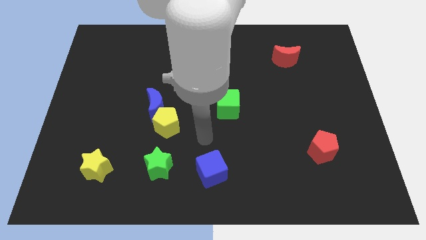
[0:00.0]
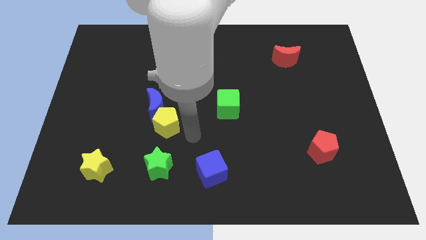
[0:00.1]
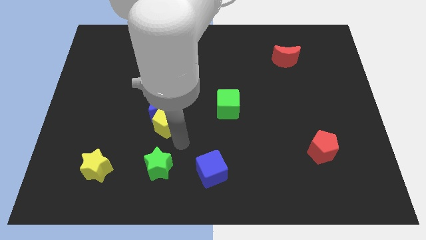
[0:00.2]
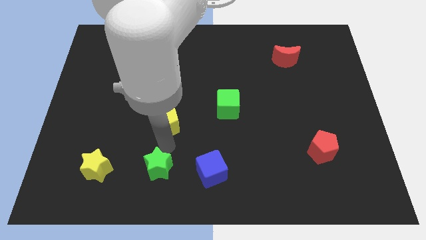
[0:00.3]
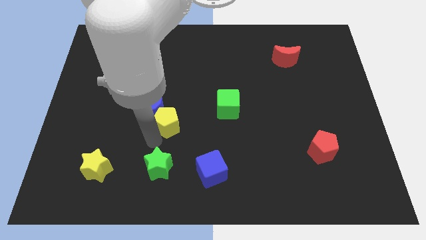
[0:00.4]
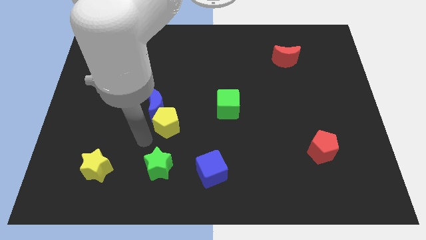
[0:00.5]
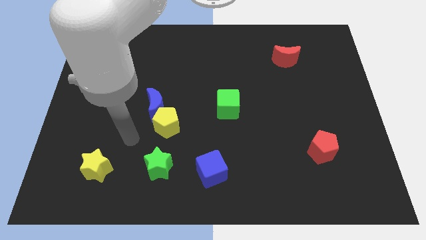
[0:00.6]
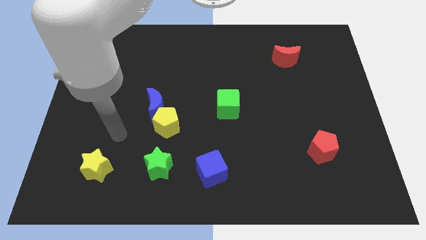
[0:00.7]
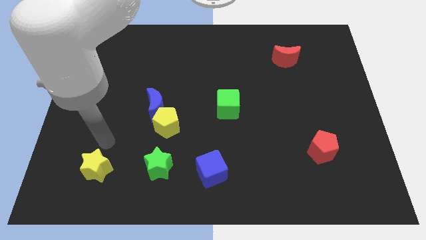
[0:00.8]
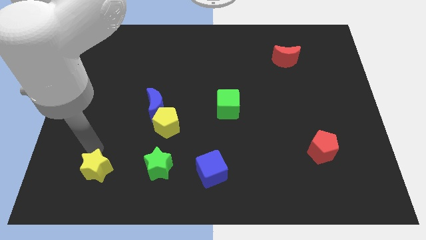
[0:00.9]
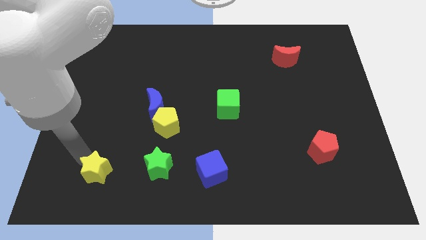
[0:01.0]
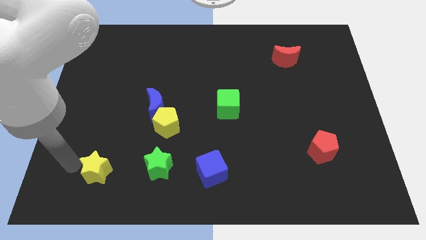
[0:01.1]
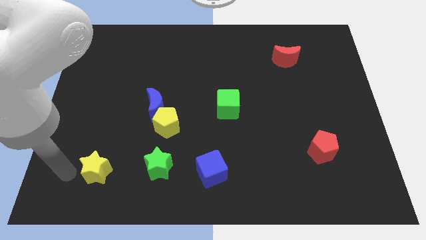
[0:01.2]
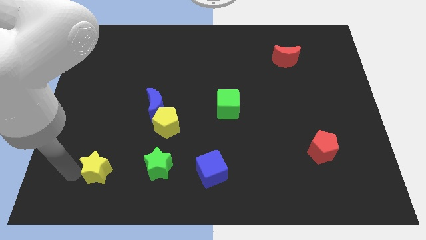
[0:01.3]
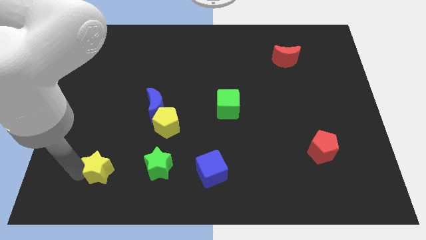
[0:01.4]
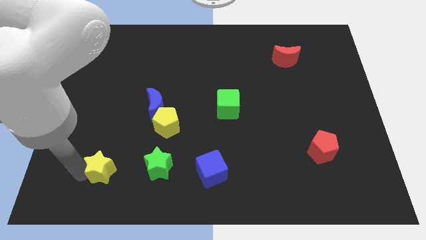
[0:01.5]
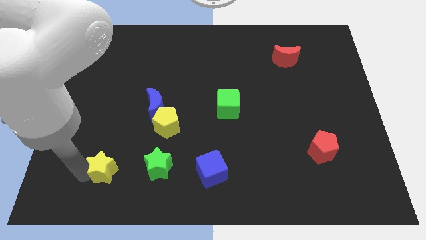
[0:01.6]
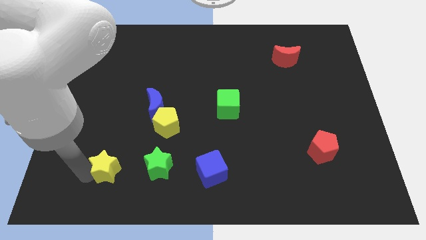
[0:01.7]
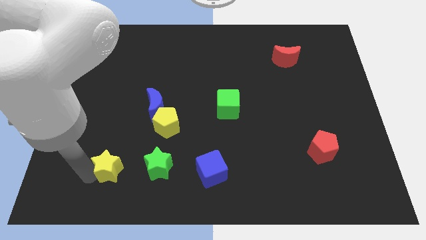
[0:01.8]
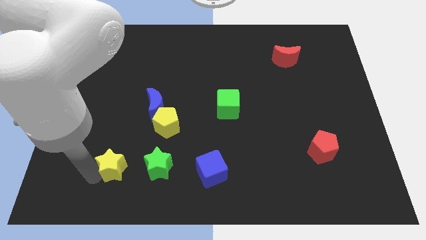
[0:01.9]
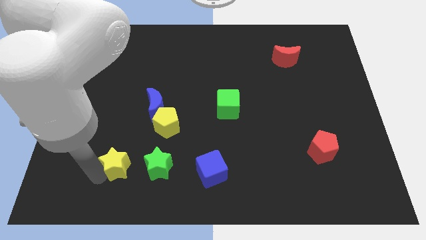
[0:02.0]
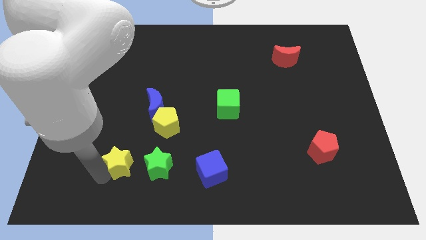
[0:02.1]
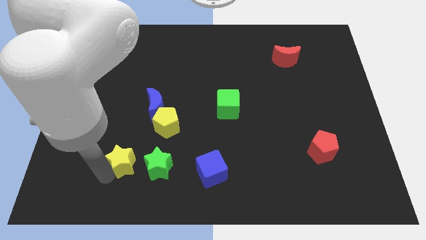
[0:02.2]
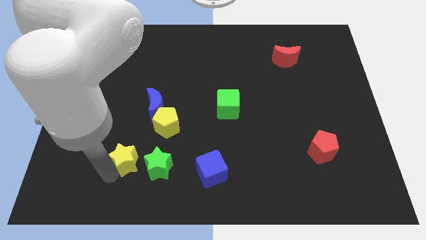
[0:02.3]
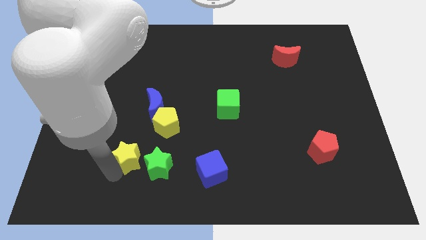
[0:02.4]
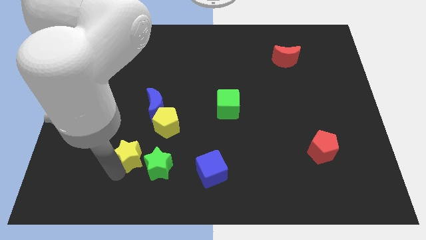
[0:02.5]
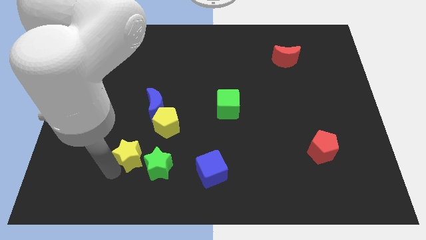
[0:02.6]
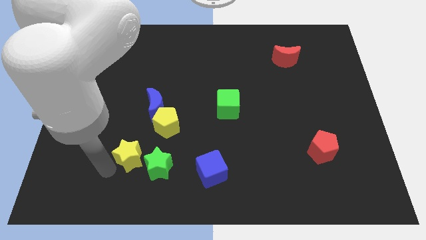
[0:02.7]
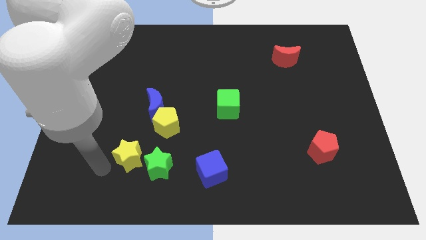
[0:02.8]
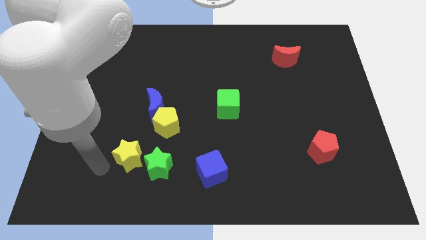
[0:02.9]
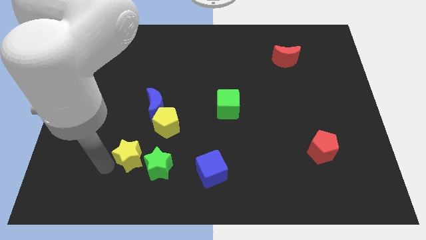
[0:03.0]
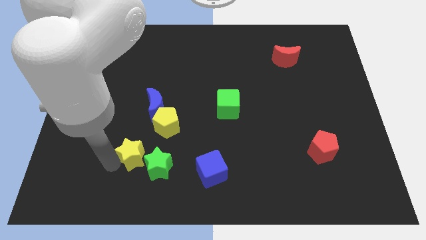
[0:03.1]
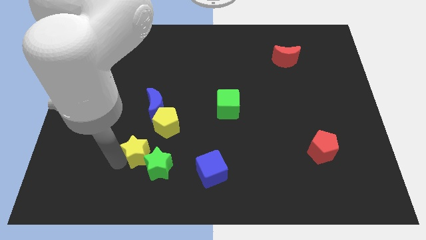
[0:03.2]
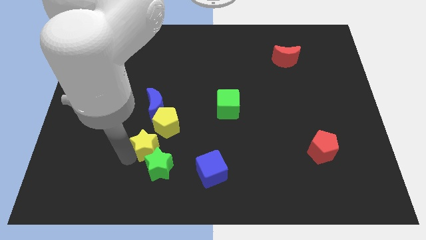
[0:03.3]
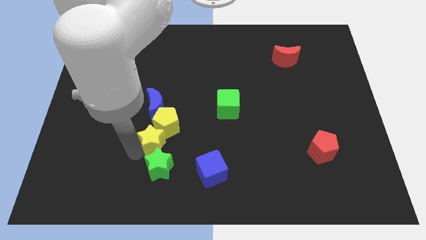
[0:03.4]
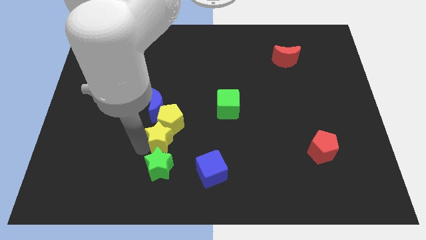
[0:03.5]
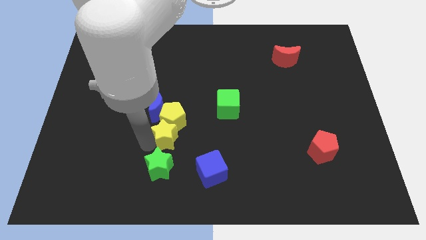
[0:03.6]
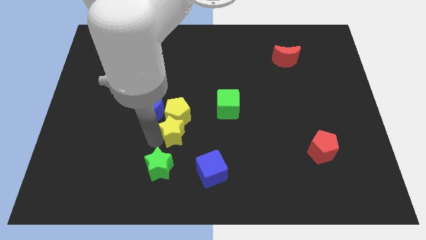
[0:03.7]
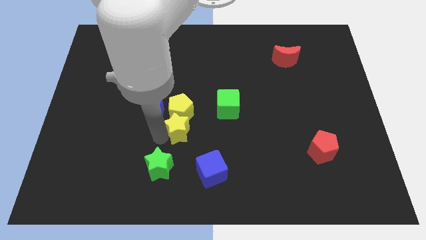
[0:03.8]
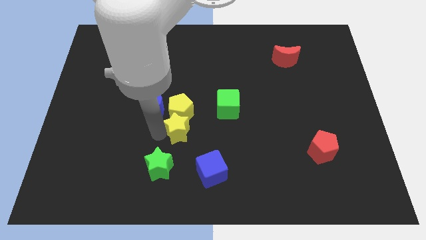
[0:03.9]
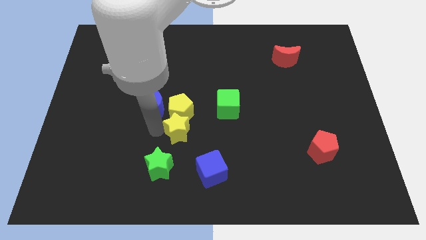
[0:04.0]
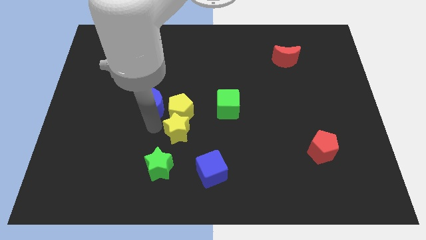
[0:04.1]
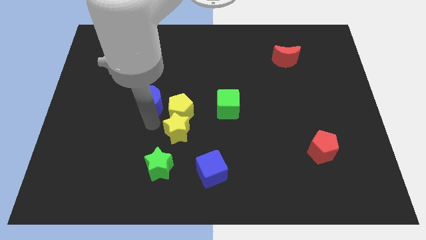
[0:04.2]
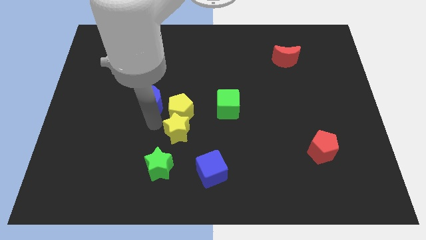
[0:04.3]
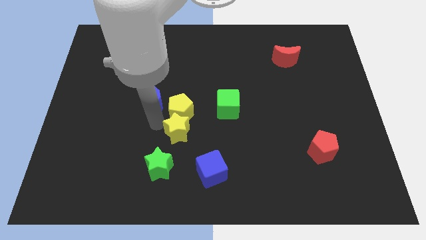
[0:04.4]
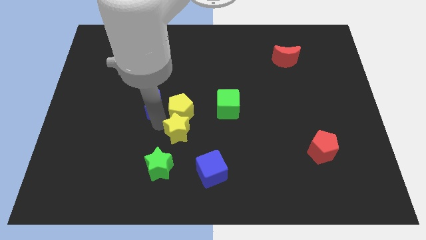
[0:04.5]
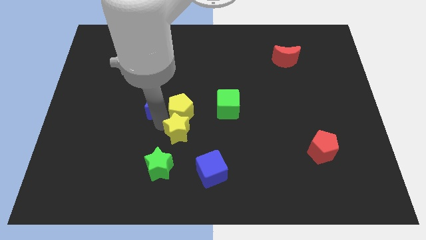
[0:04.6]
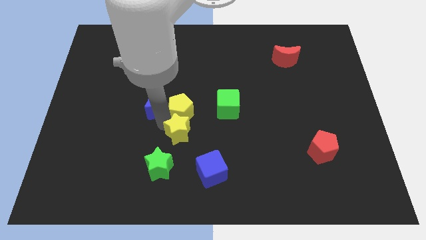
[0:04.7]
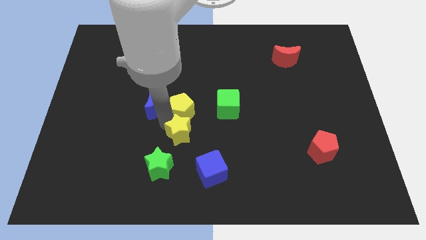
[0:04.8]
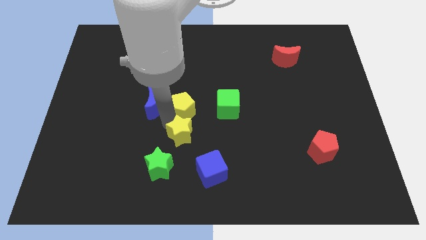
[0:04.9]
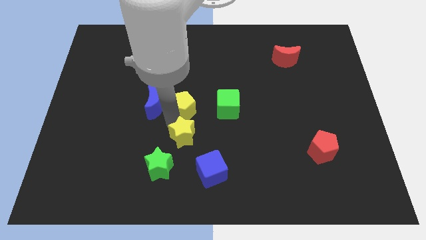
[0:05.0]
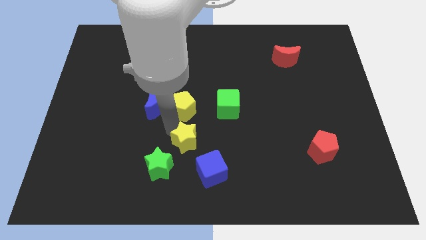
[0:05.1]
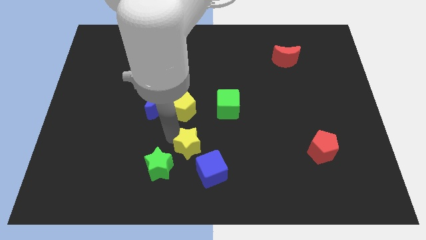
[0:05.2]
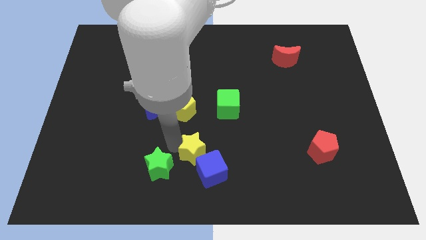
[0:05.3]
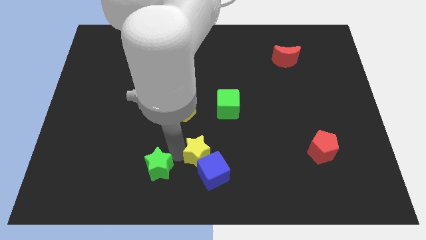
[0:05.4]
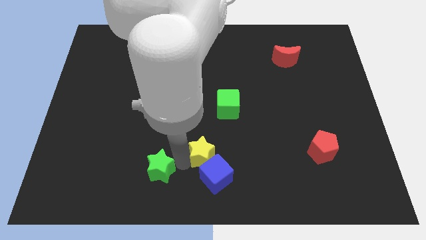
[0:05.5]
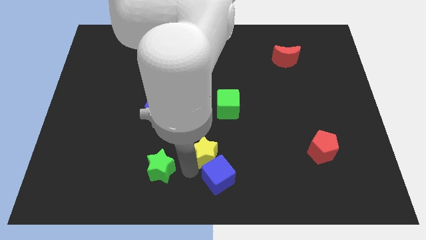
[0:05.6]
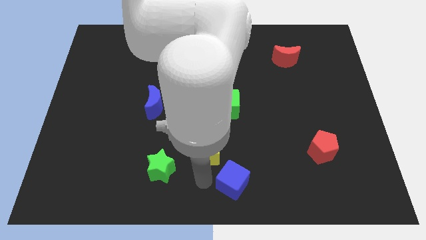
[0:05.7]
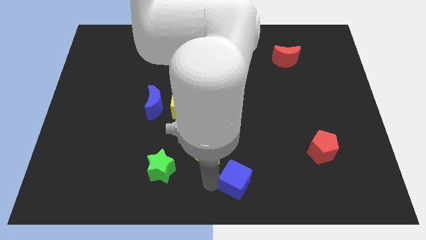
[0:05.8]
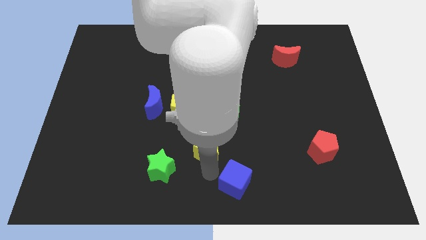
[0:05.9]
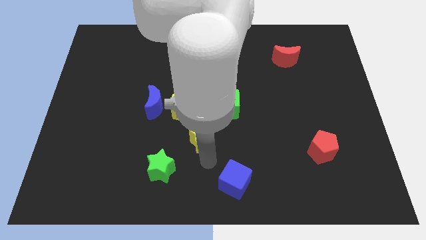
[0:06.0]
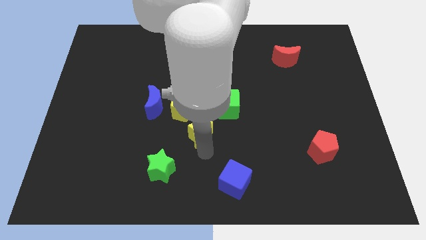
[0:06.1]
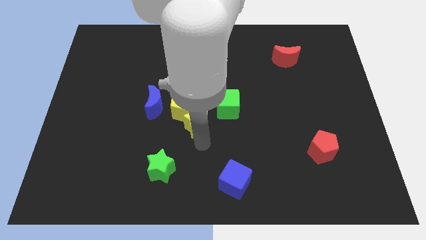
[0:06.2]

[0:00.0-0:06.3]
push the yellow star diagonally upwards and right

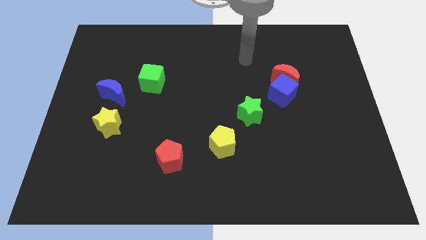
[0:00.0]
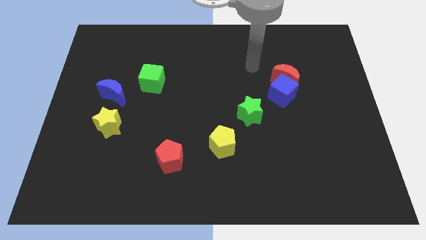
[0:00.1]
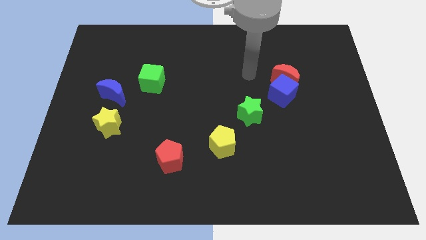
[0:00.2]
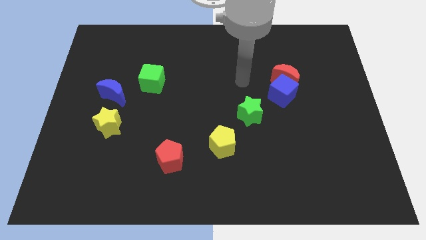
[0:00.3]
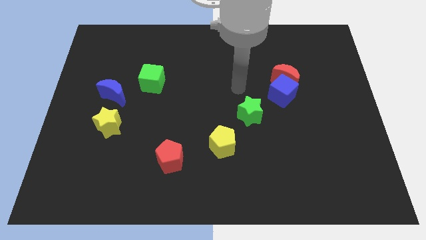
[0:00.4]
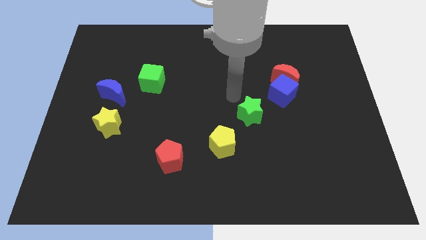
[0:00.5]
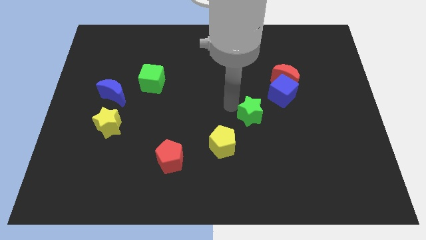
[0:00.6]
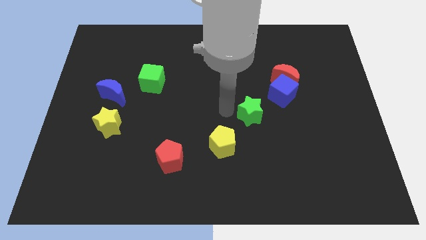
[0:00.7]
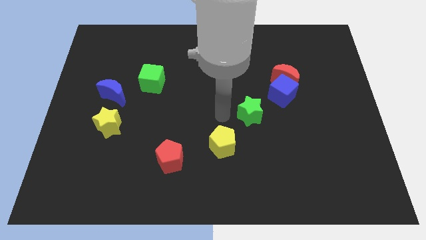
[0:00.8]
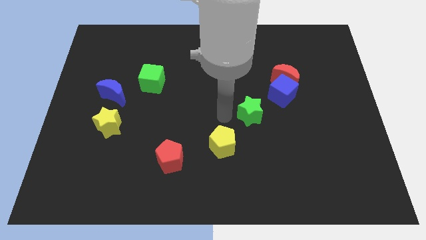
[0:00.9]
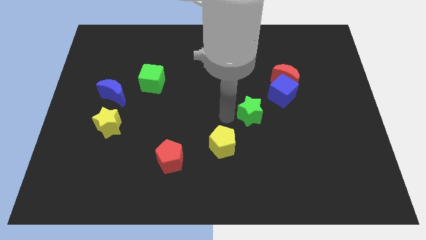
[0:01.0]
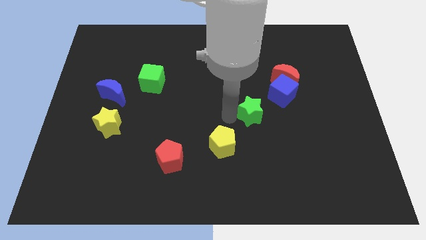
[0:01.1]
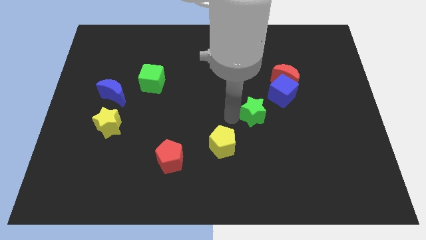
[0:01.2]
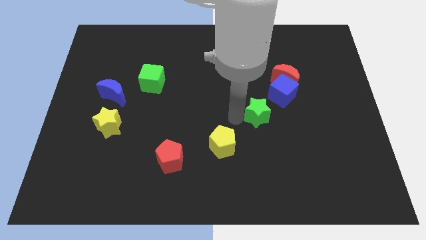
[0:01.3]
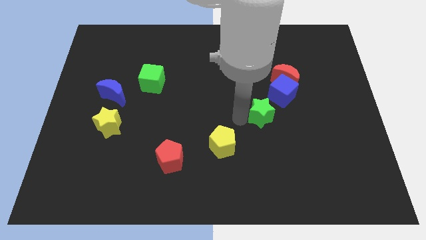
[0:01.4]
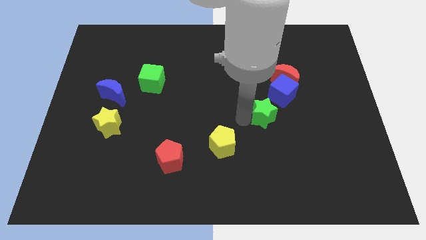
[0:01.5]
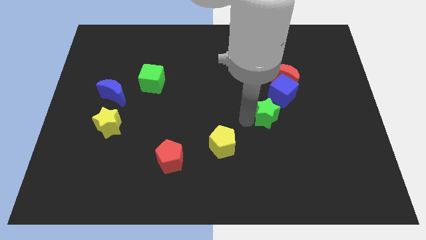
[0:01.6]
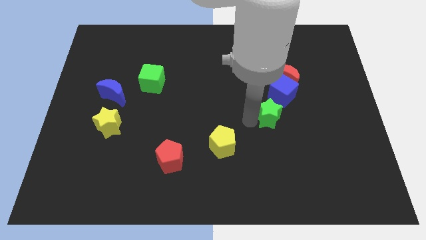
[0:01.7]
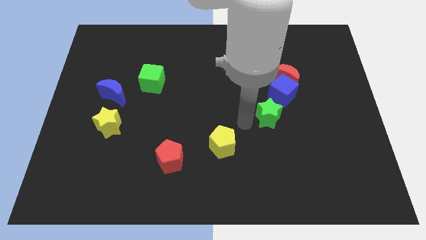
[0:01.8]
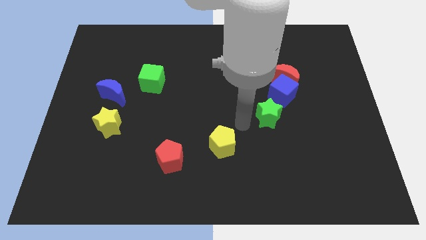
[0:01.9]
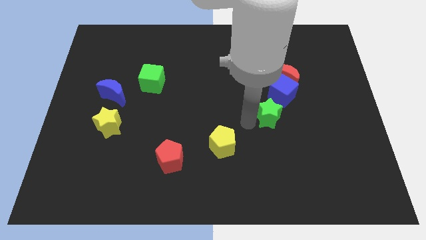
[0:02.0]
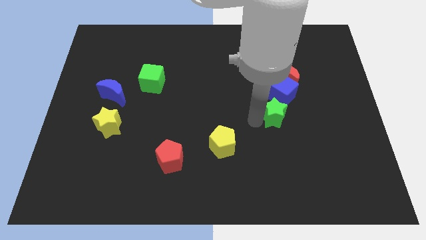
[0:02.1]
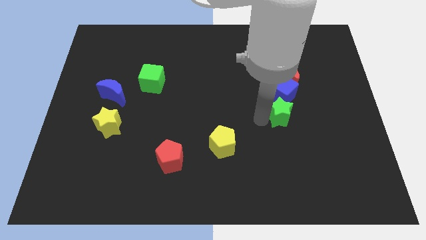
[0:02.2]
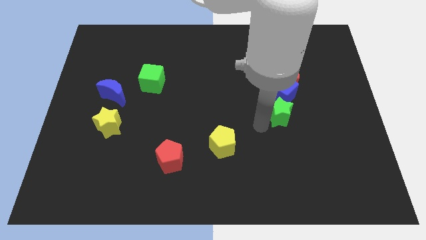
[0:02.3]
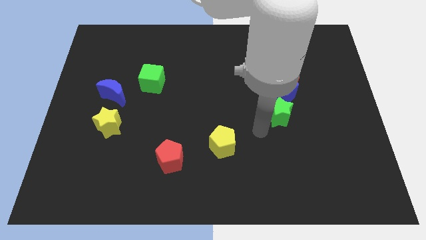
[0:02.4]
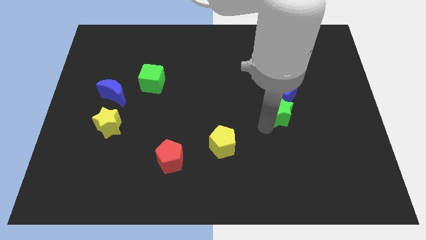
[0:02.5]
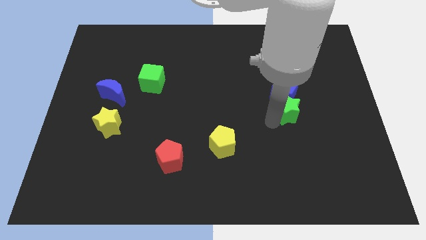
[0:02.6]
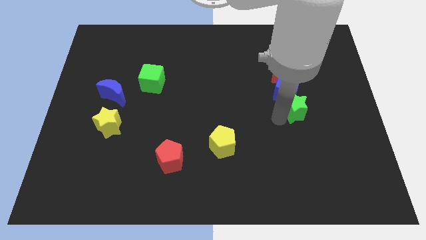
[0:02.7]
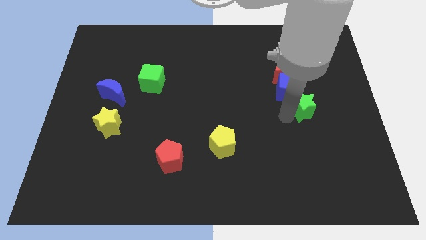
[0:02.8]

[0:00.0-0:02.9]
slide the green star up and right a little
